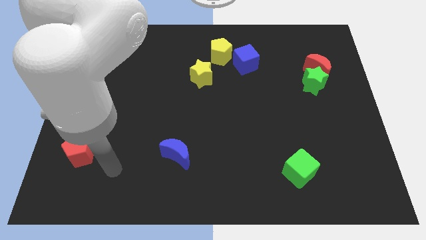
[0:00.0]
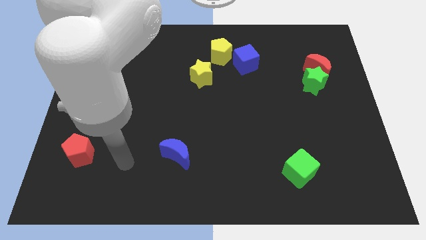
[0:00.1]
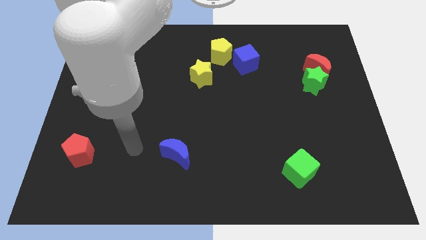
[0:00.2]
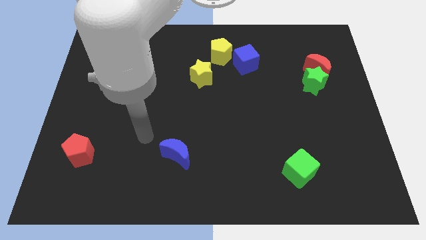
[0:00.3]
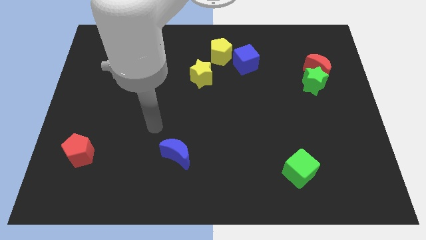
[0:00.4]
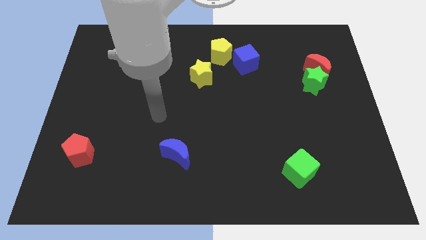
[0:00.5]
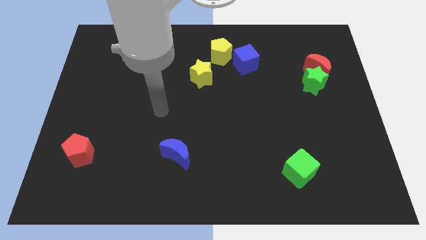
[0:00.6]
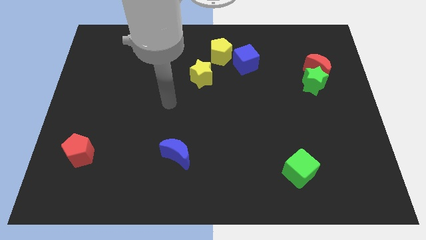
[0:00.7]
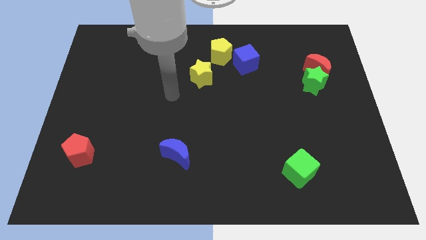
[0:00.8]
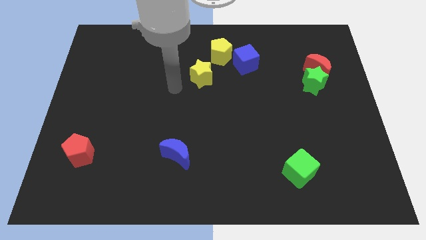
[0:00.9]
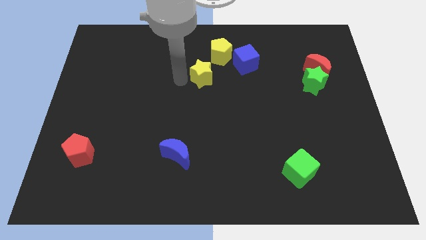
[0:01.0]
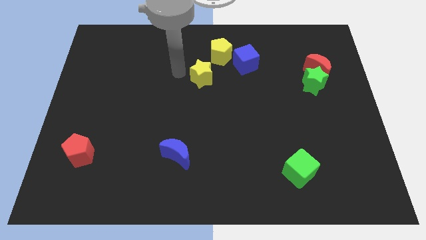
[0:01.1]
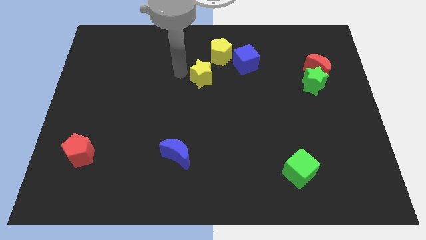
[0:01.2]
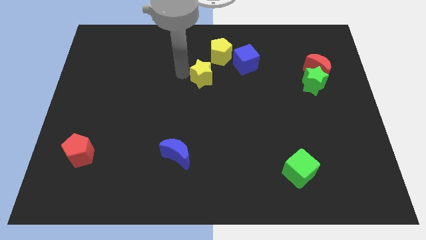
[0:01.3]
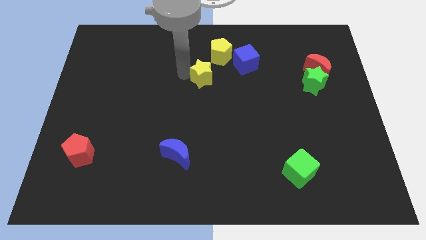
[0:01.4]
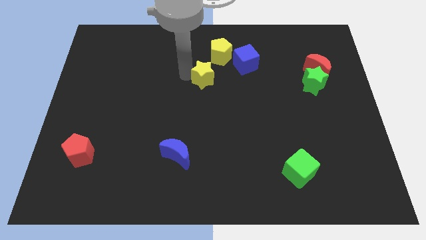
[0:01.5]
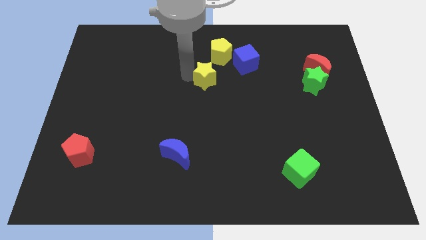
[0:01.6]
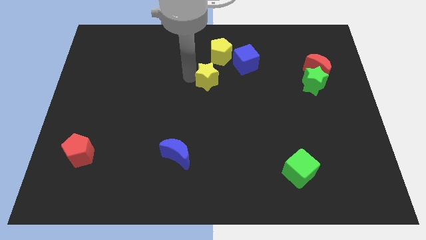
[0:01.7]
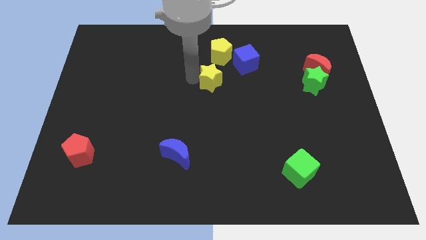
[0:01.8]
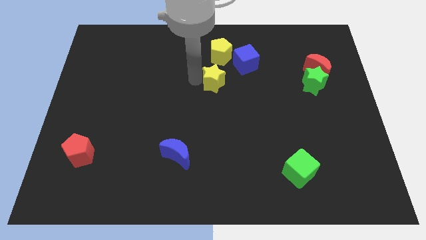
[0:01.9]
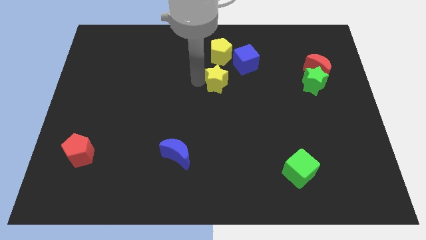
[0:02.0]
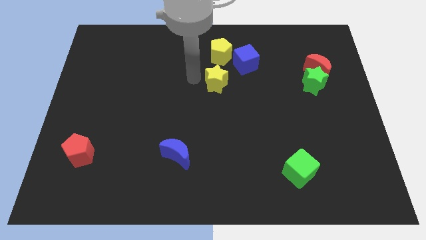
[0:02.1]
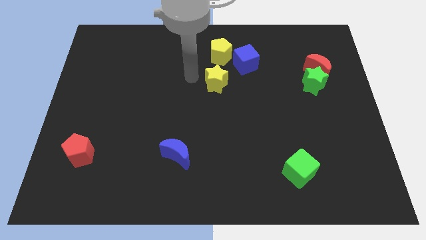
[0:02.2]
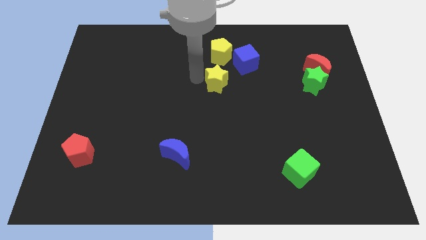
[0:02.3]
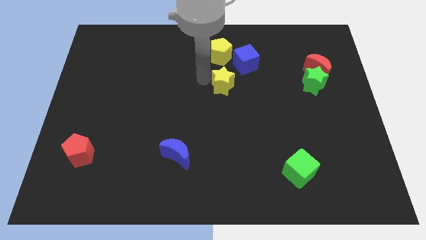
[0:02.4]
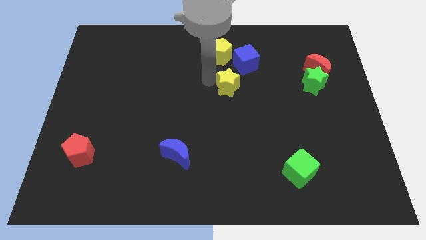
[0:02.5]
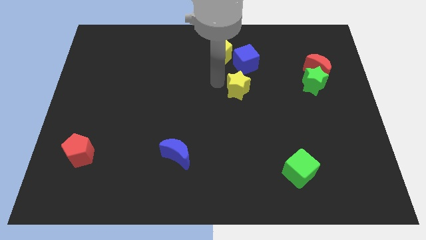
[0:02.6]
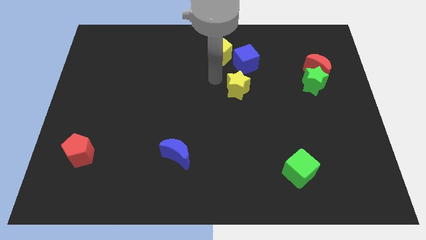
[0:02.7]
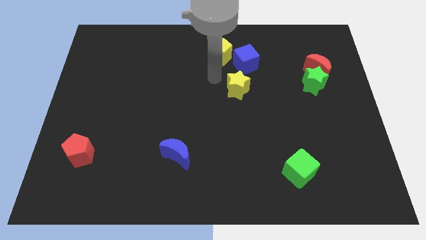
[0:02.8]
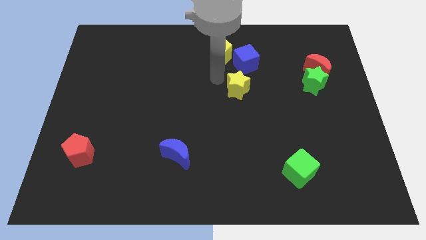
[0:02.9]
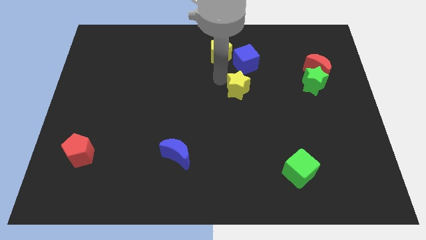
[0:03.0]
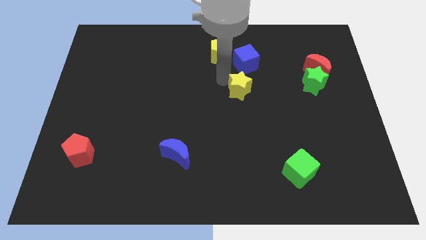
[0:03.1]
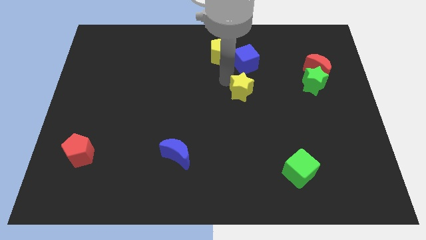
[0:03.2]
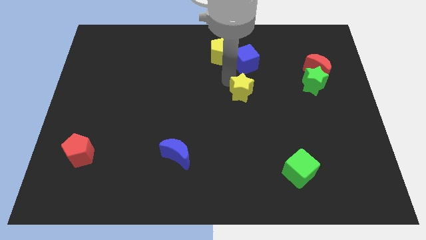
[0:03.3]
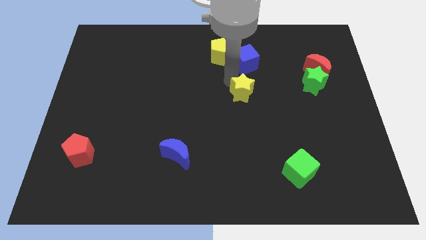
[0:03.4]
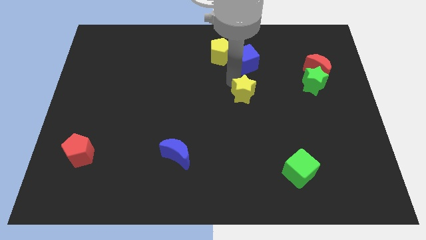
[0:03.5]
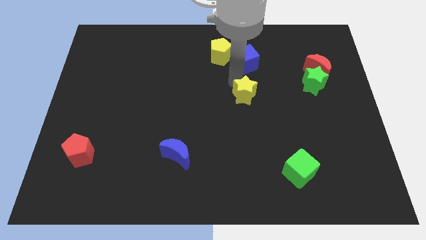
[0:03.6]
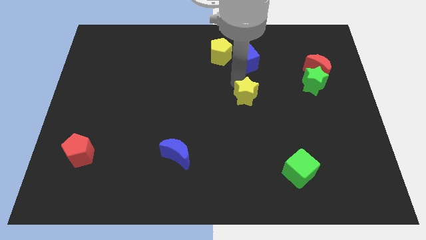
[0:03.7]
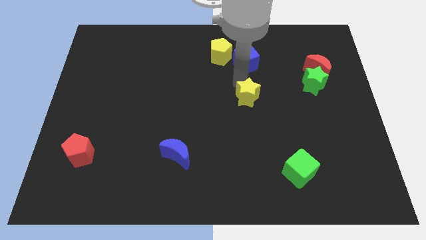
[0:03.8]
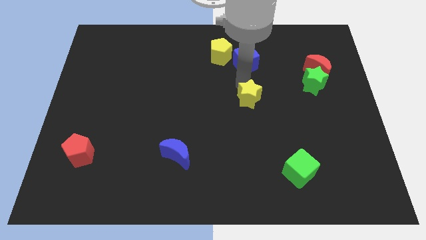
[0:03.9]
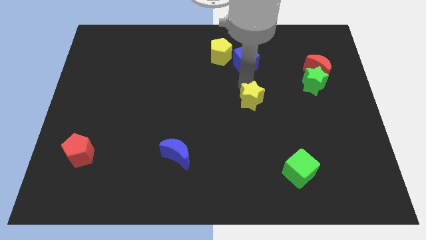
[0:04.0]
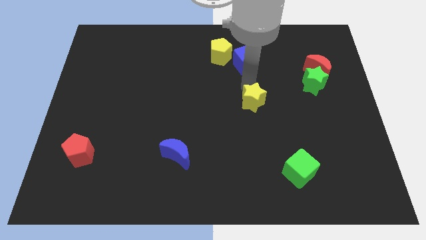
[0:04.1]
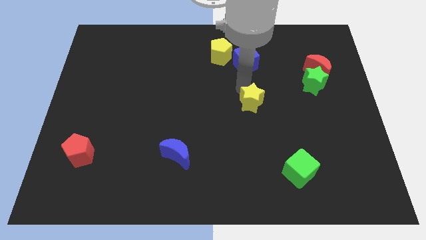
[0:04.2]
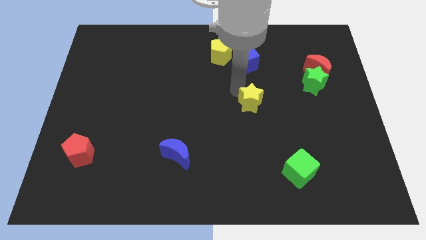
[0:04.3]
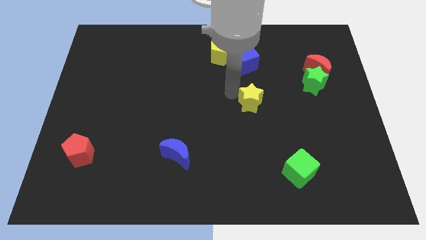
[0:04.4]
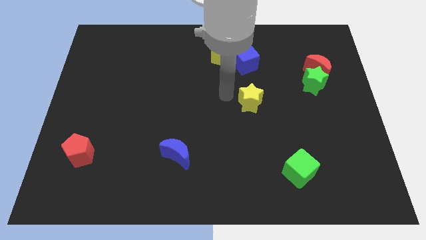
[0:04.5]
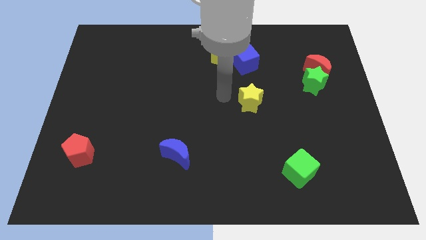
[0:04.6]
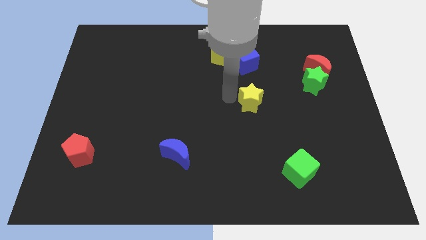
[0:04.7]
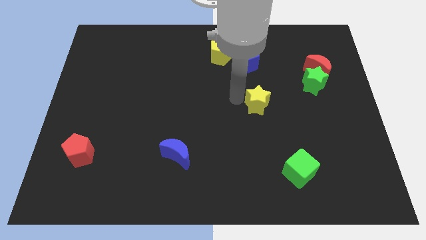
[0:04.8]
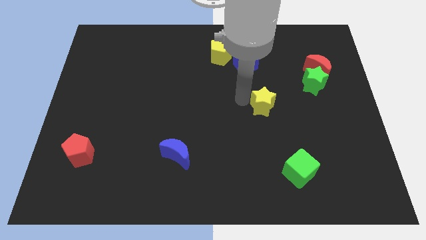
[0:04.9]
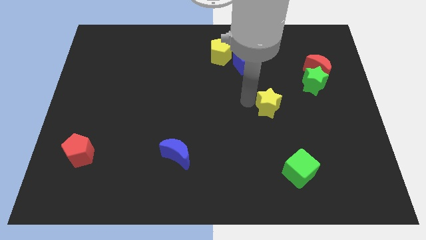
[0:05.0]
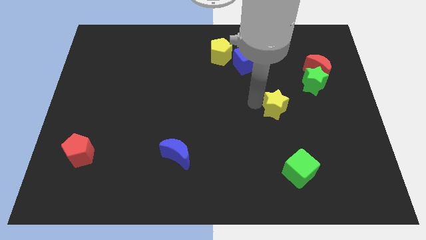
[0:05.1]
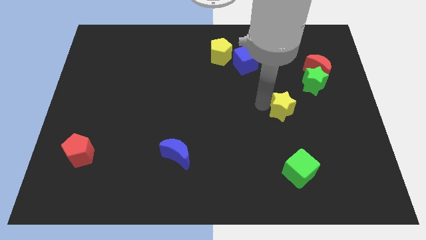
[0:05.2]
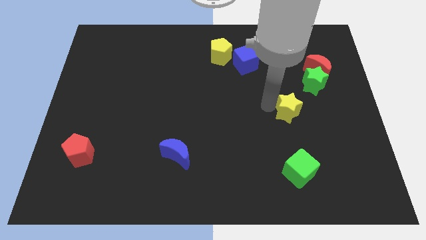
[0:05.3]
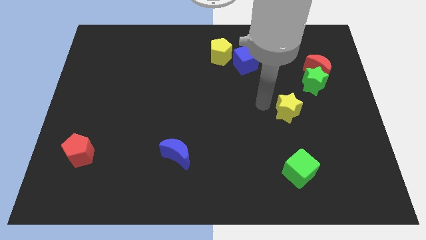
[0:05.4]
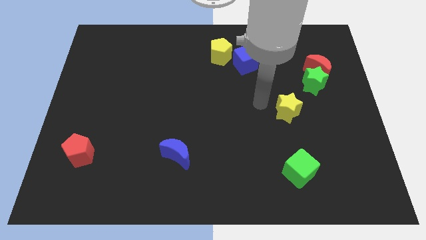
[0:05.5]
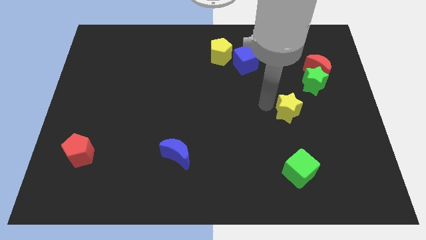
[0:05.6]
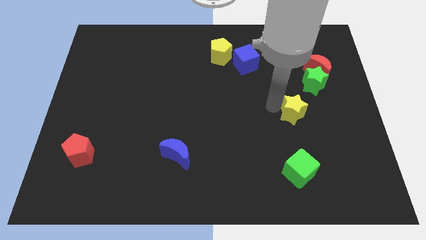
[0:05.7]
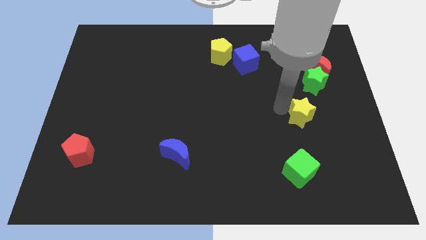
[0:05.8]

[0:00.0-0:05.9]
slide the yellow star to the bottom side of the green star

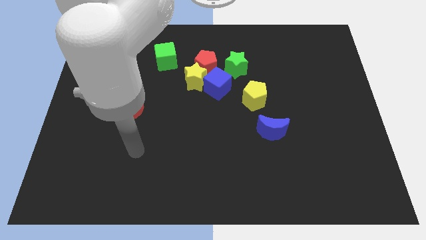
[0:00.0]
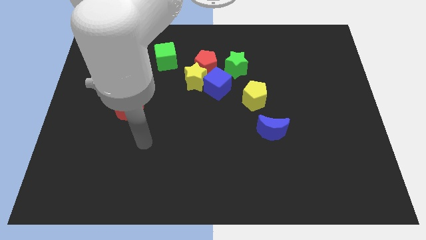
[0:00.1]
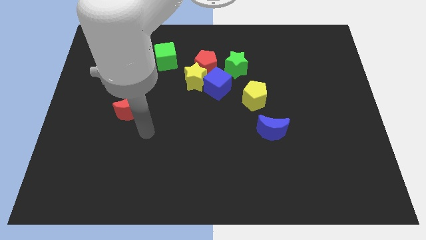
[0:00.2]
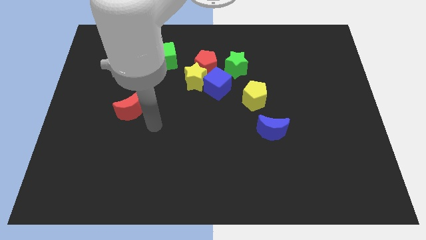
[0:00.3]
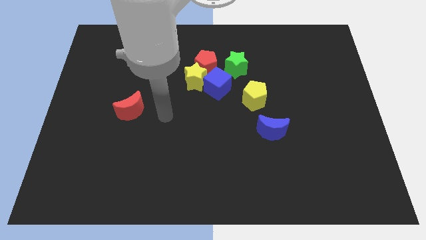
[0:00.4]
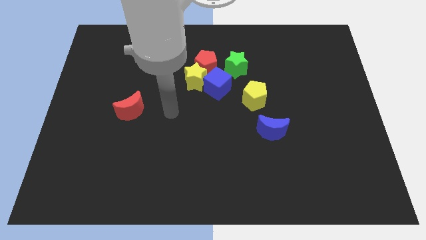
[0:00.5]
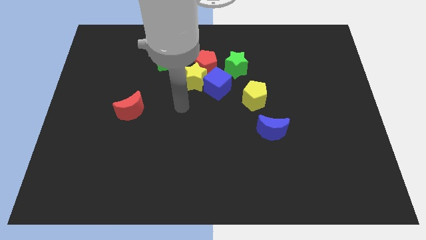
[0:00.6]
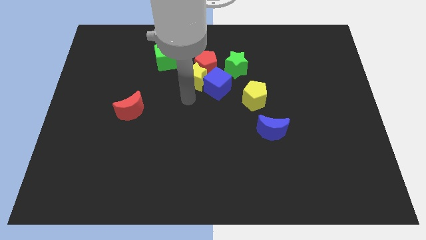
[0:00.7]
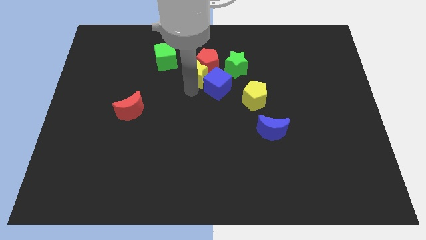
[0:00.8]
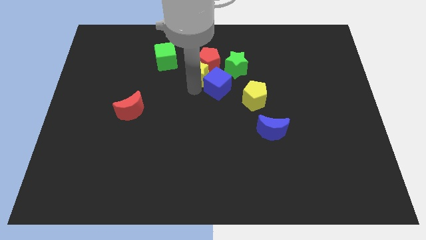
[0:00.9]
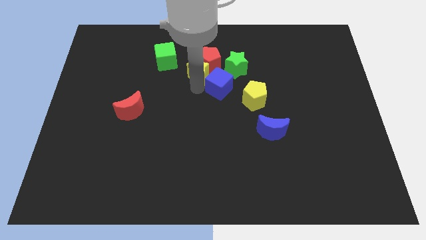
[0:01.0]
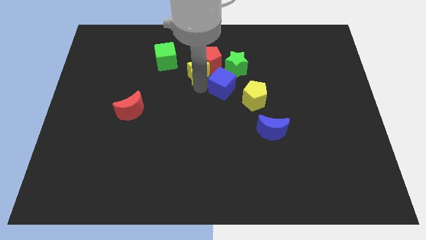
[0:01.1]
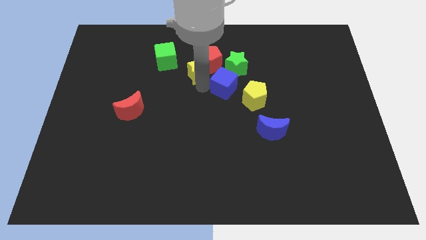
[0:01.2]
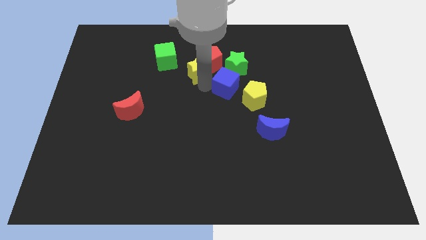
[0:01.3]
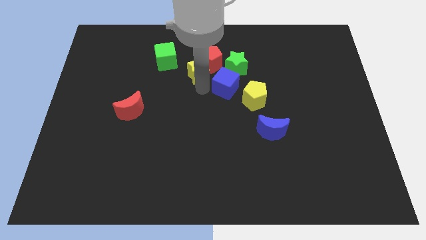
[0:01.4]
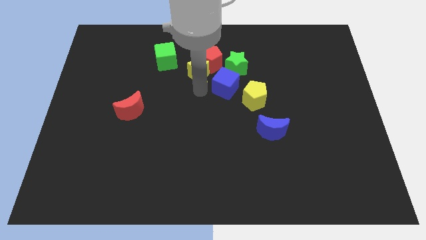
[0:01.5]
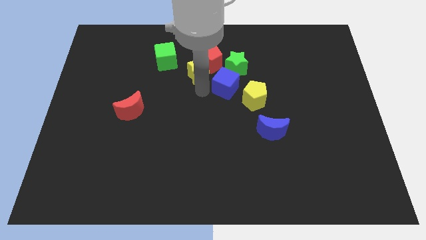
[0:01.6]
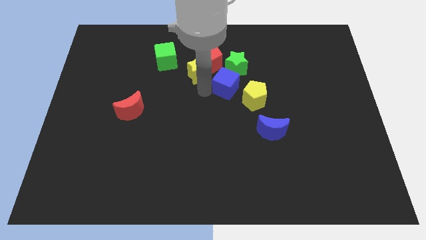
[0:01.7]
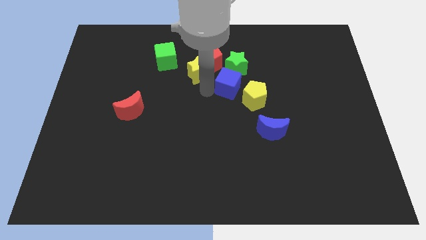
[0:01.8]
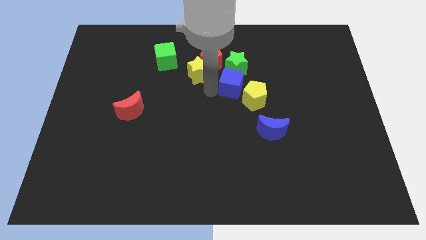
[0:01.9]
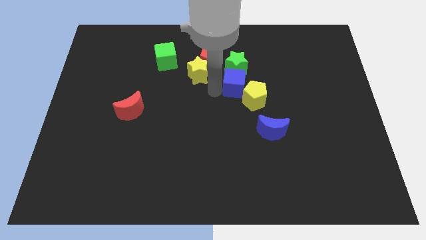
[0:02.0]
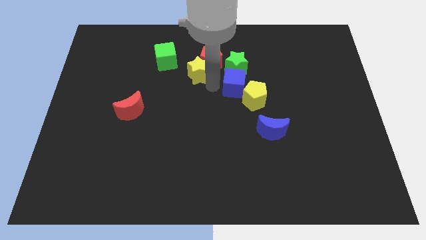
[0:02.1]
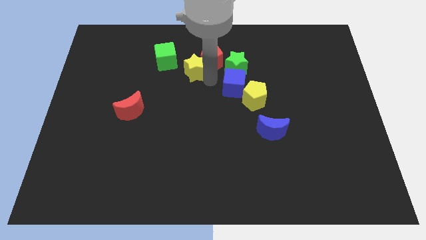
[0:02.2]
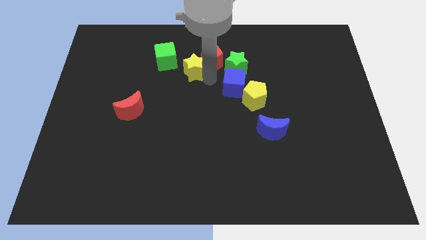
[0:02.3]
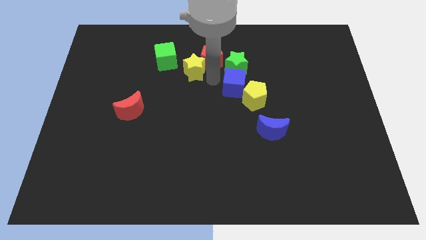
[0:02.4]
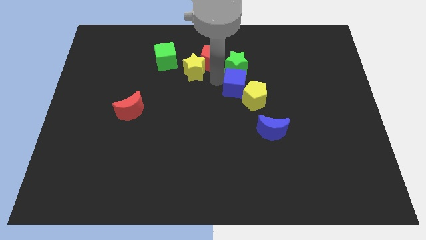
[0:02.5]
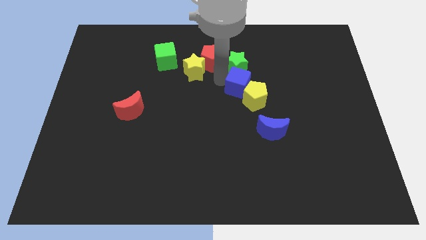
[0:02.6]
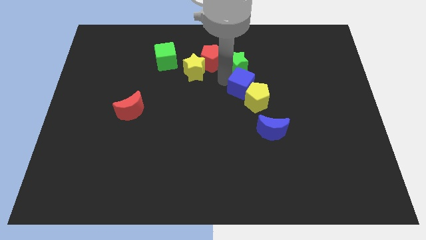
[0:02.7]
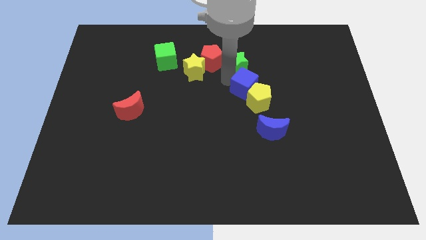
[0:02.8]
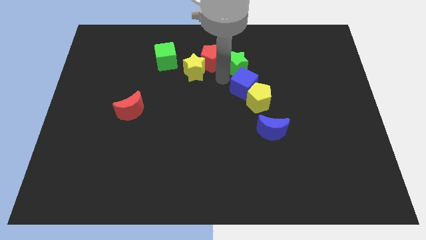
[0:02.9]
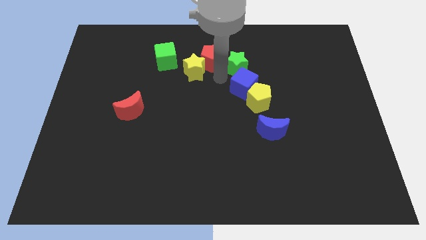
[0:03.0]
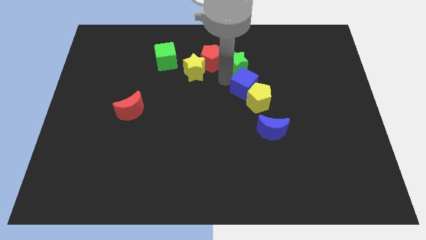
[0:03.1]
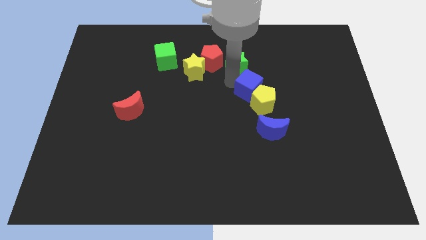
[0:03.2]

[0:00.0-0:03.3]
slide the blue cube above the blue moon
